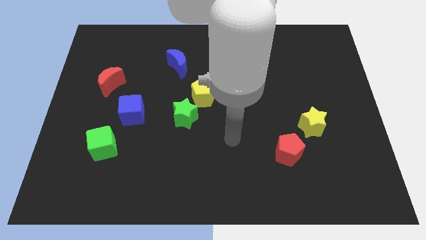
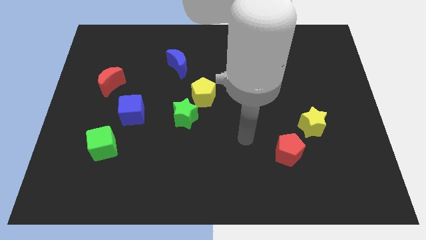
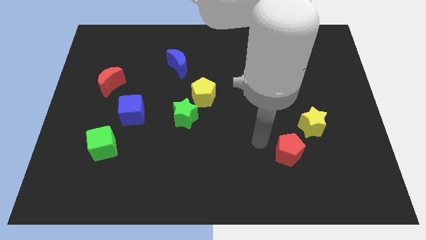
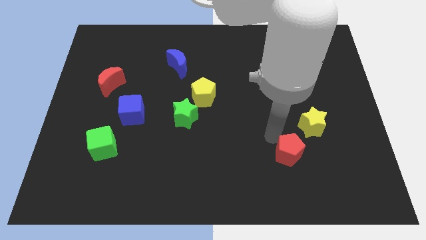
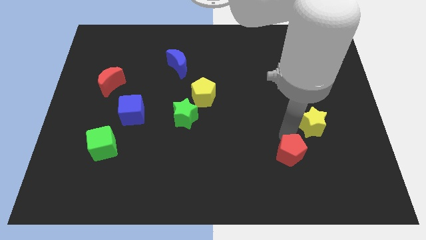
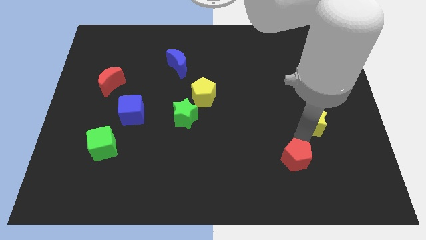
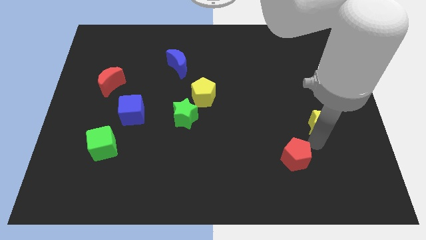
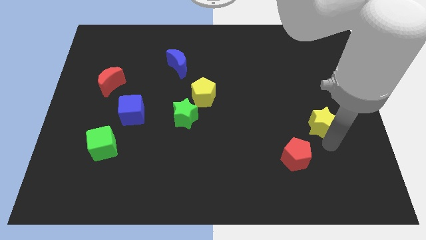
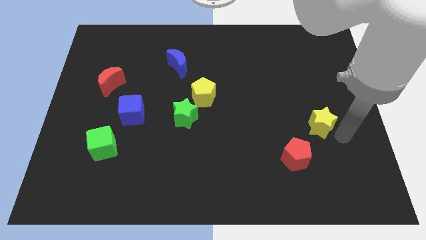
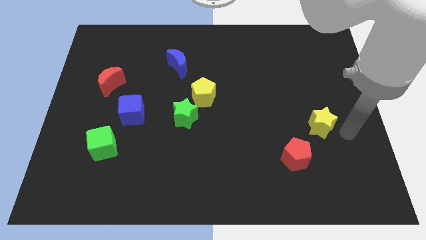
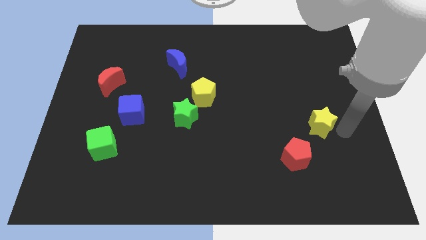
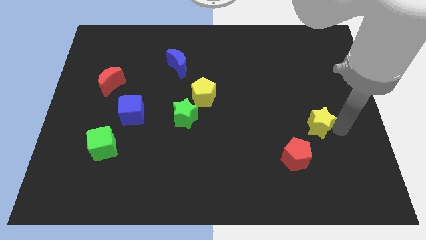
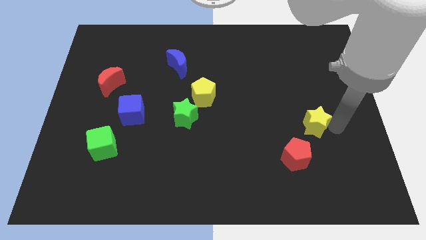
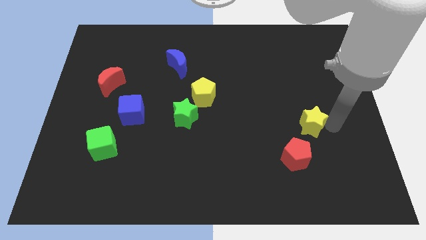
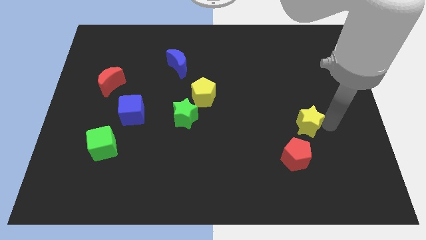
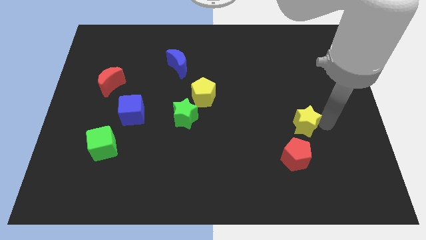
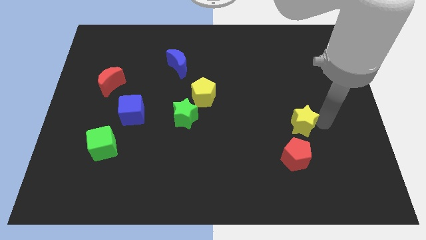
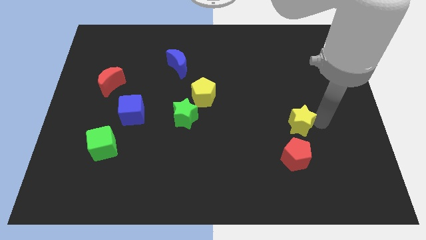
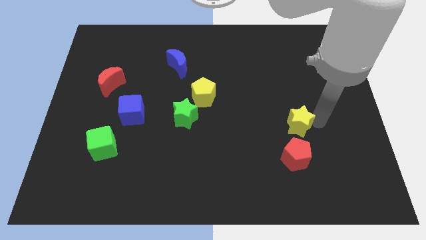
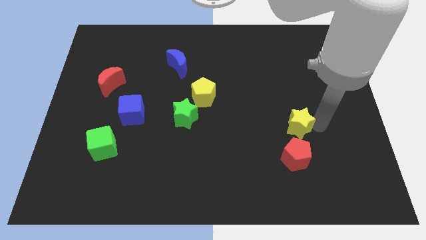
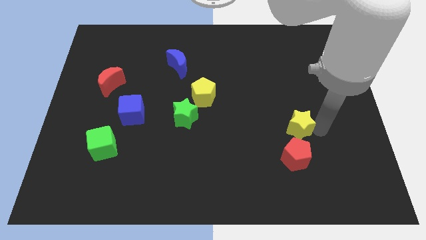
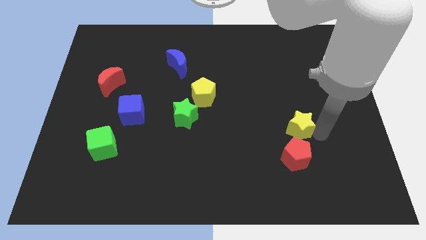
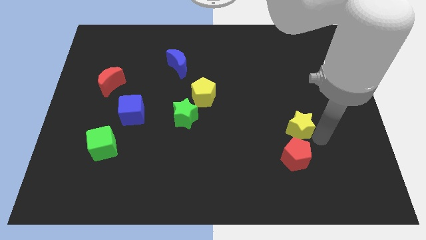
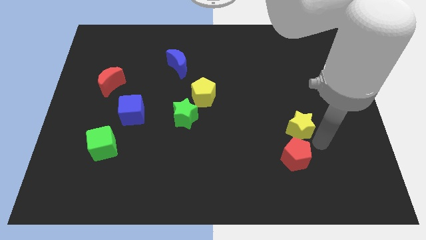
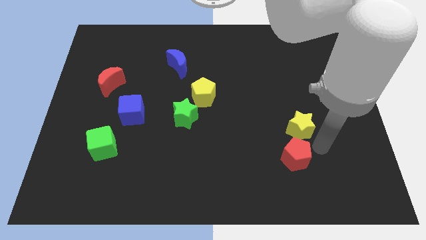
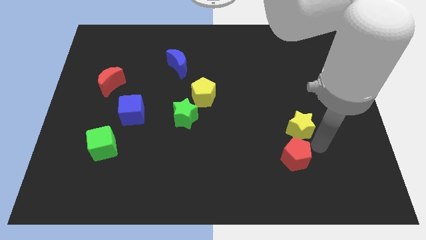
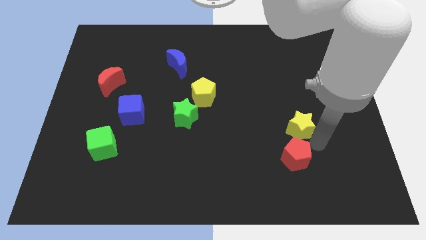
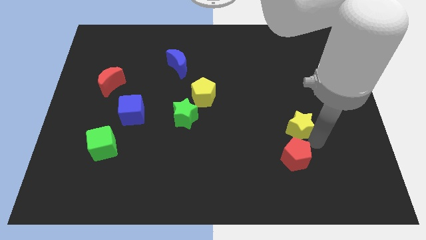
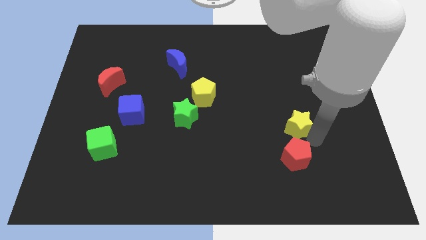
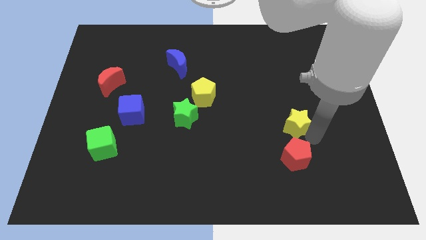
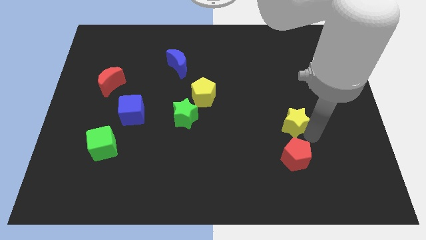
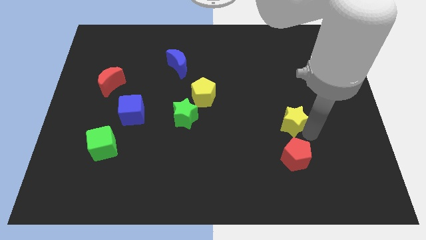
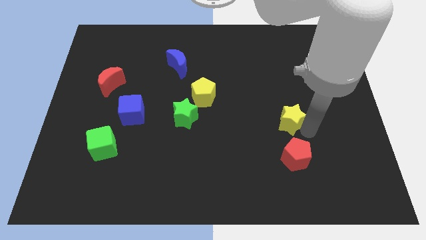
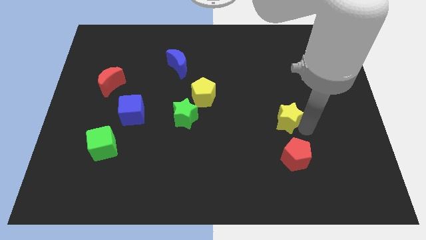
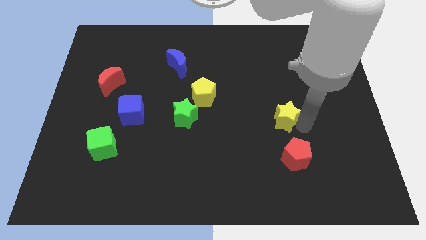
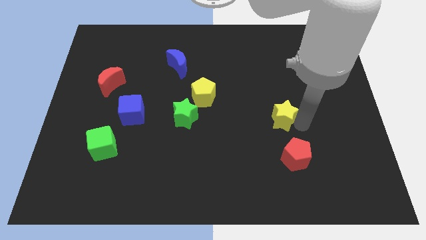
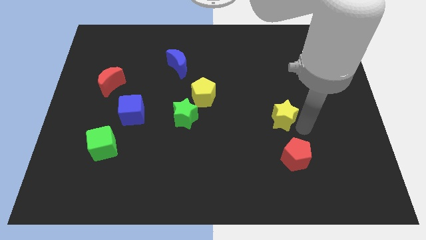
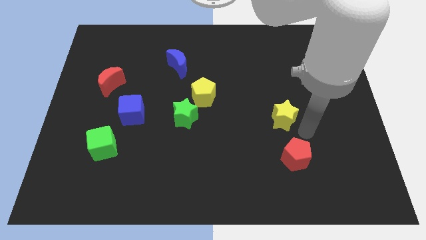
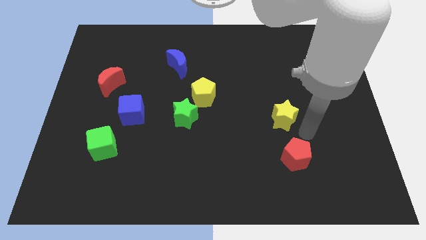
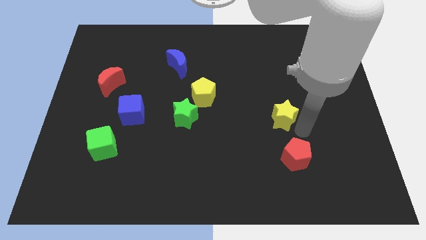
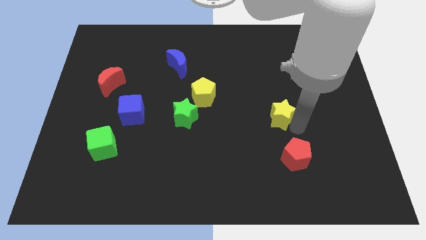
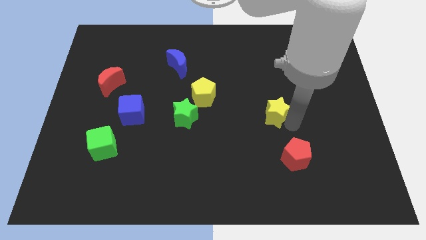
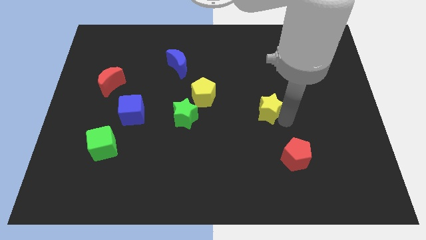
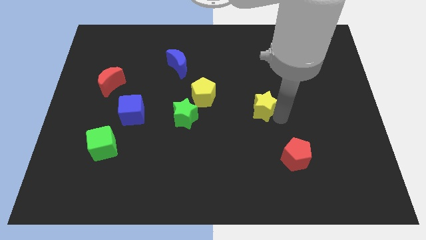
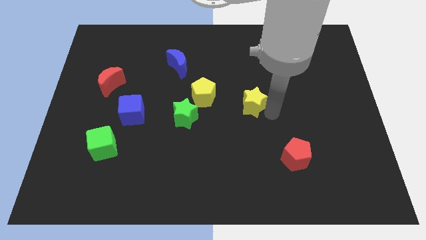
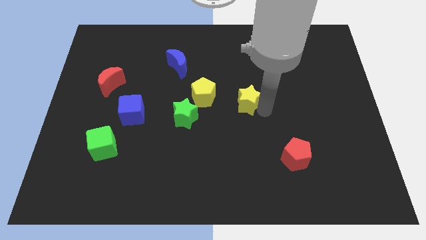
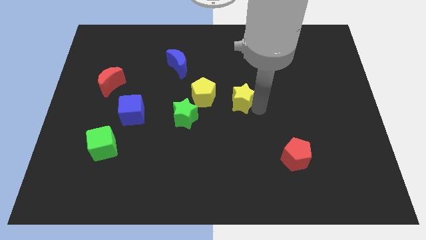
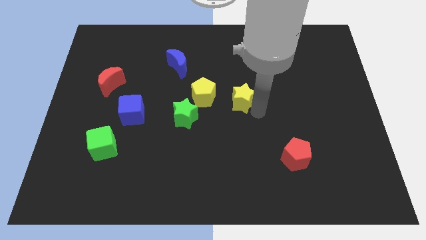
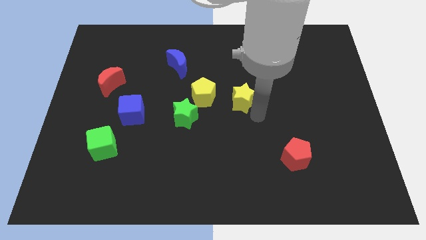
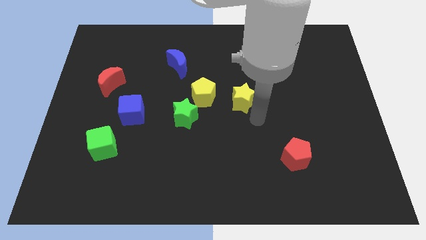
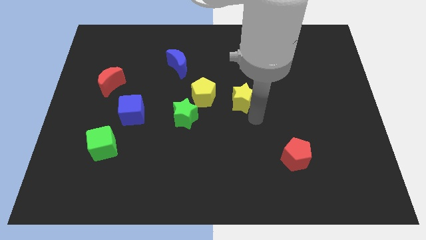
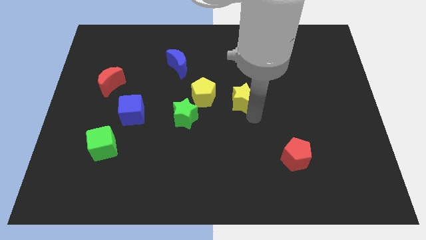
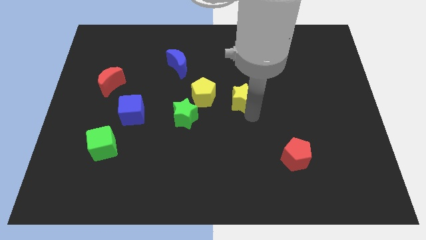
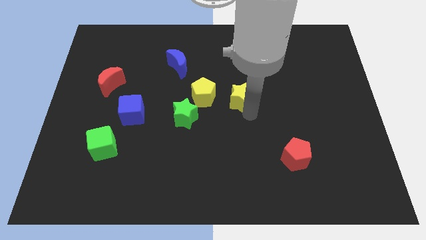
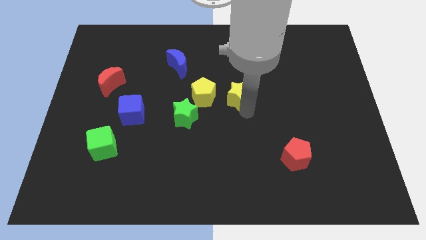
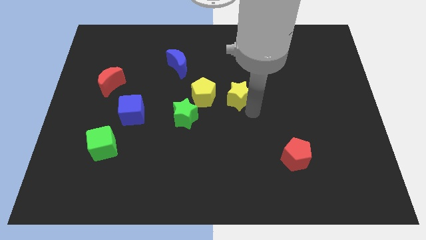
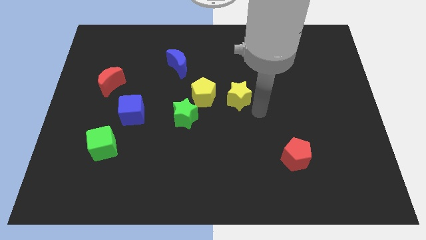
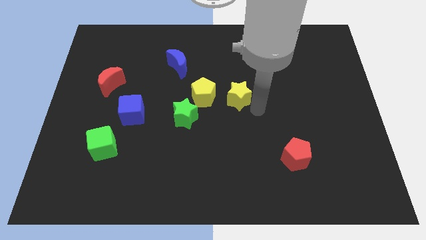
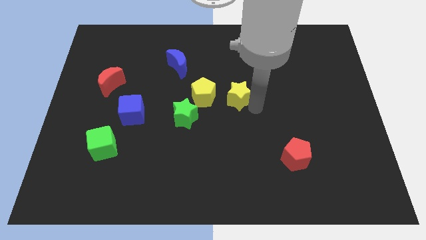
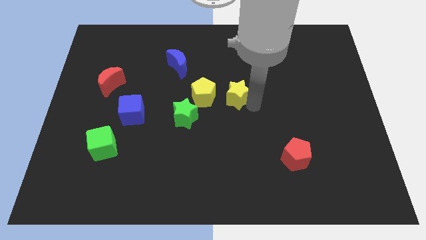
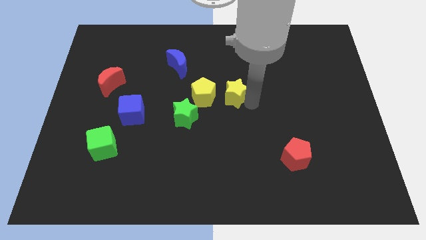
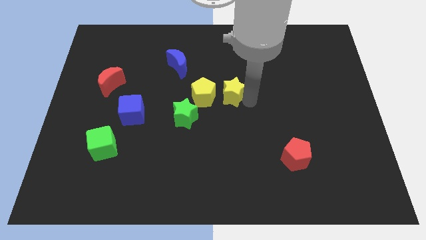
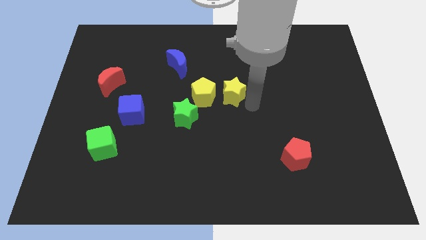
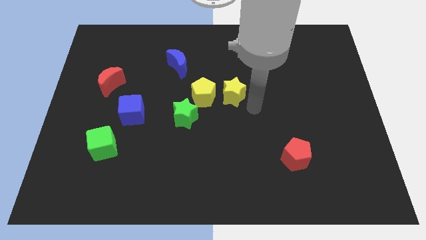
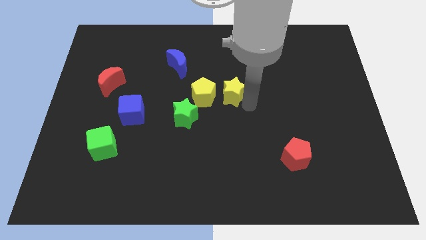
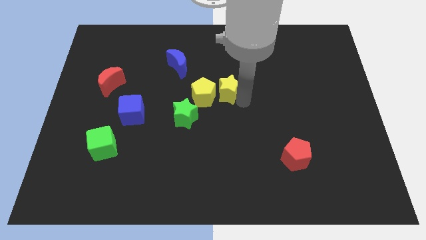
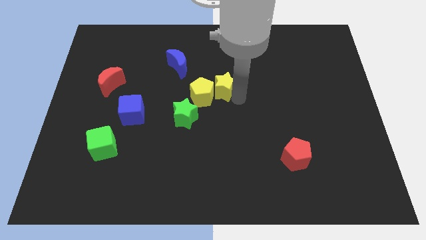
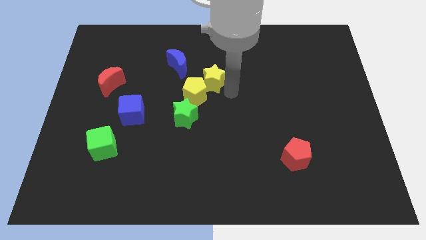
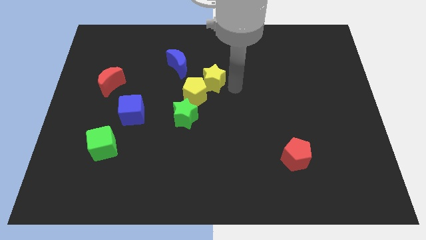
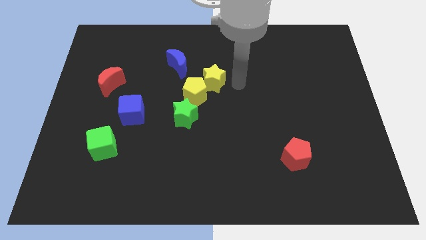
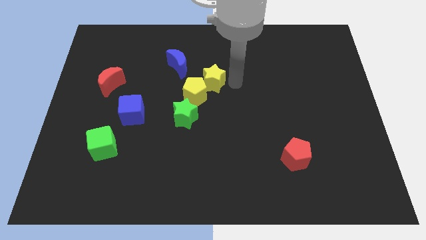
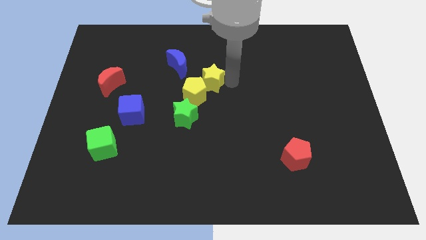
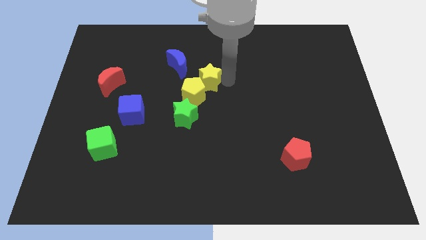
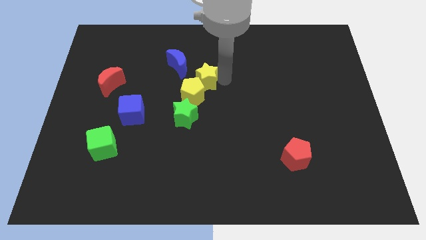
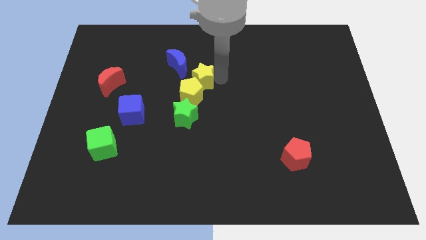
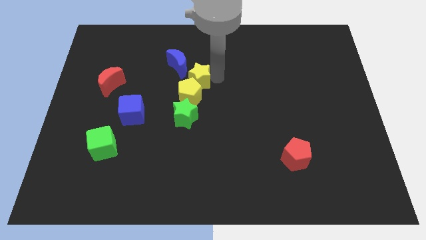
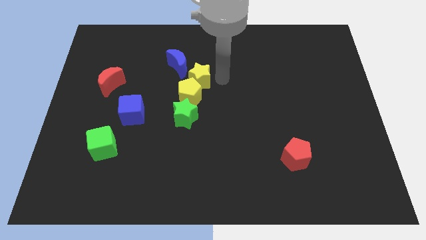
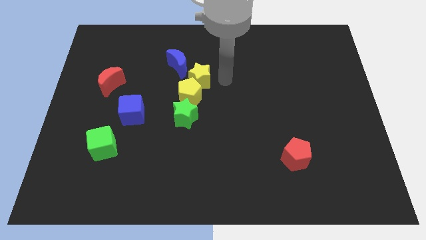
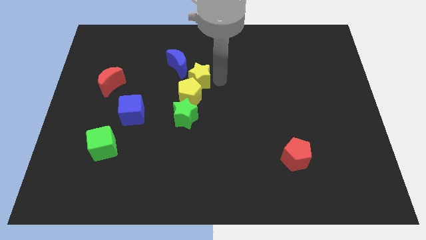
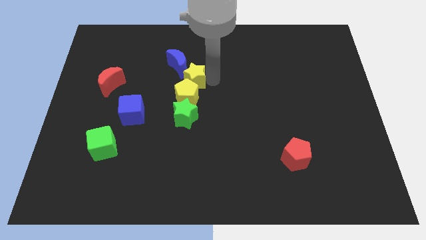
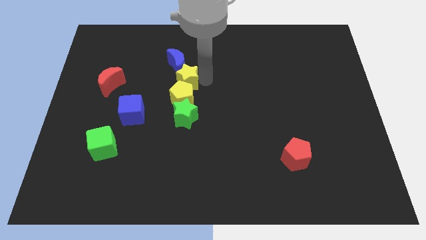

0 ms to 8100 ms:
move the yellow star diagonally up and to the left of the yellow pentagon
